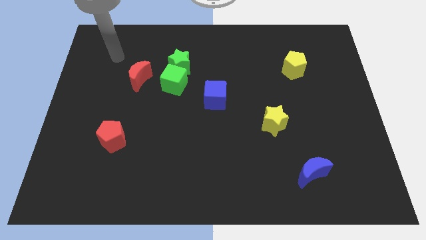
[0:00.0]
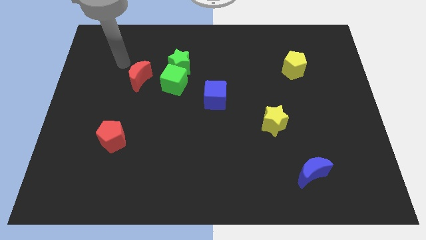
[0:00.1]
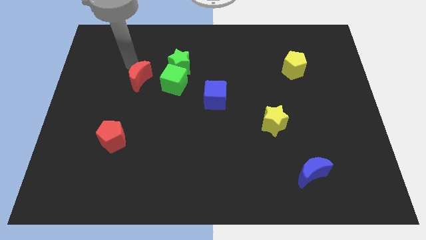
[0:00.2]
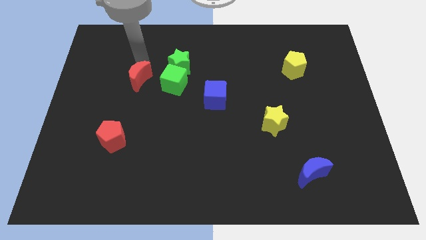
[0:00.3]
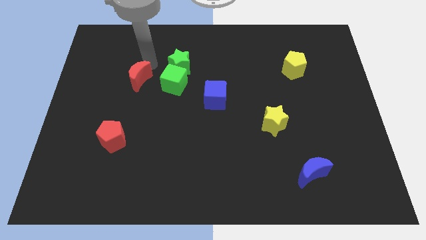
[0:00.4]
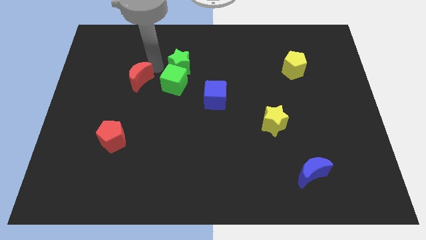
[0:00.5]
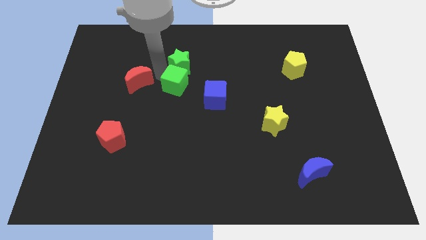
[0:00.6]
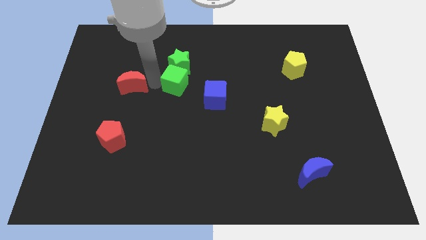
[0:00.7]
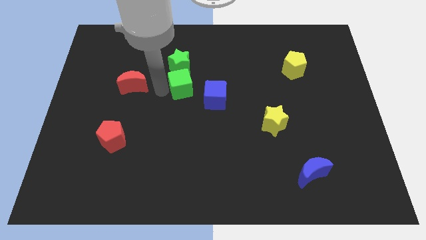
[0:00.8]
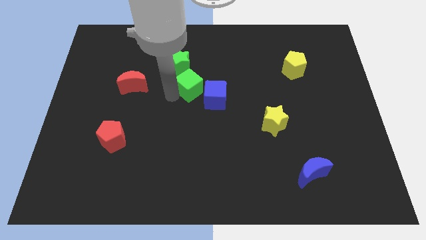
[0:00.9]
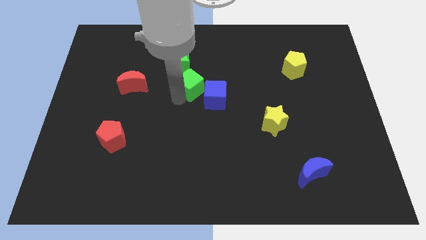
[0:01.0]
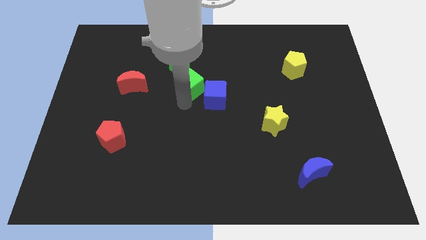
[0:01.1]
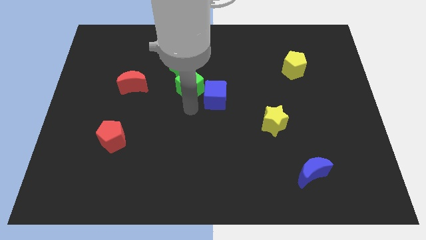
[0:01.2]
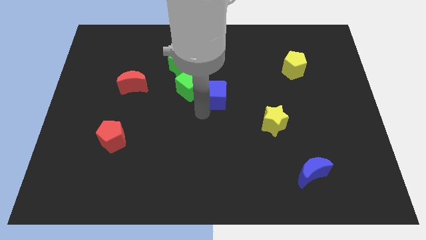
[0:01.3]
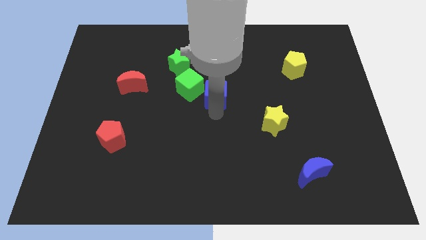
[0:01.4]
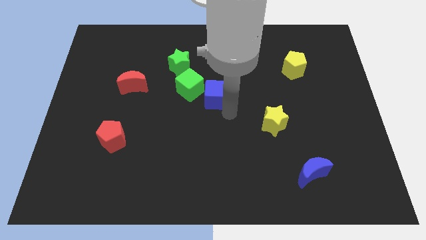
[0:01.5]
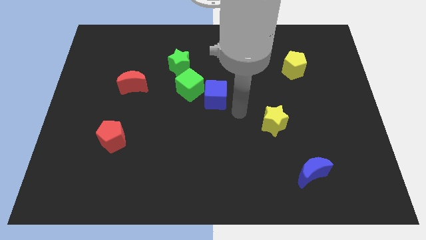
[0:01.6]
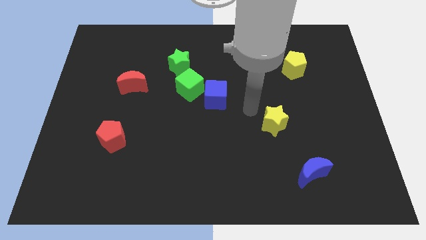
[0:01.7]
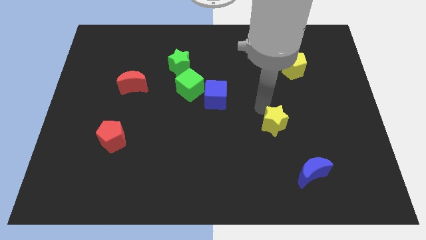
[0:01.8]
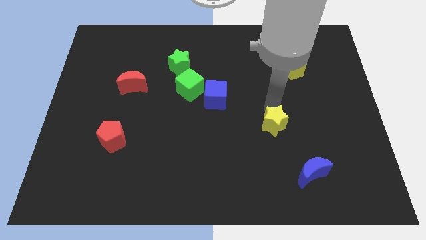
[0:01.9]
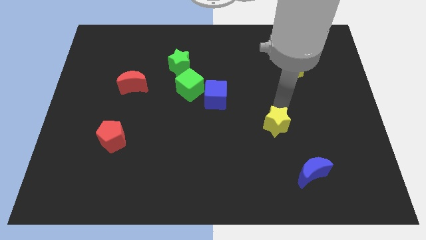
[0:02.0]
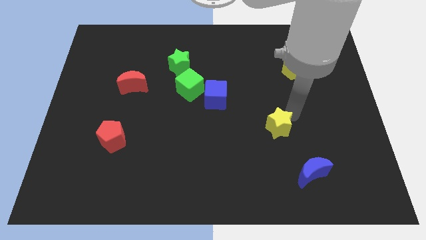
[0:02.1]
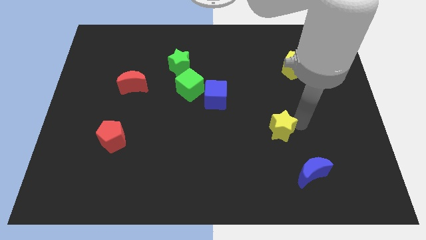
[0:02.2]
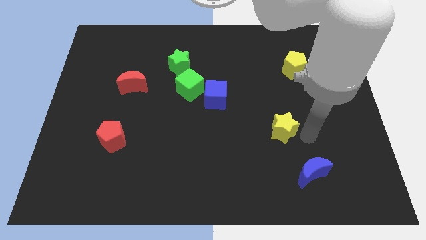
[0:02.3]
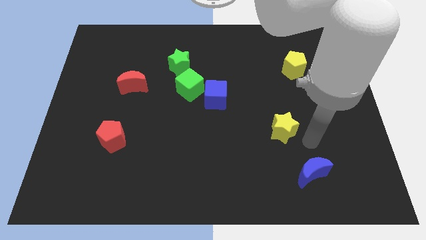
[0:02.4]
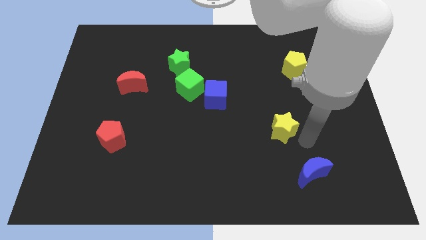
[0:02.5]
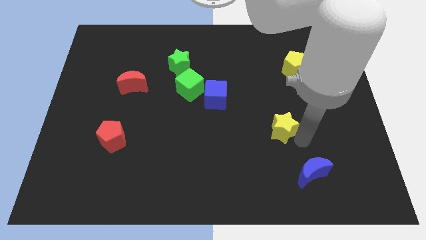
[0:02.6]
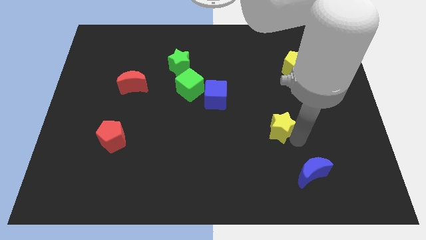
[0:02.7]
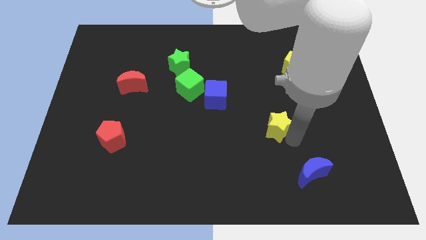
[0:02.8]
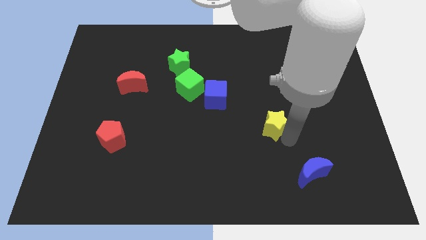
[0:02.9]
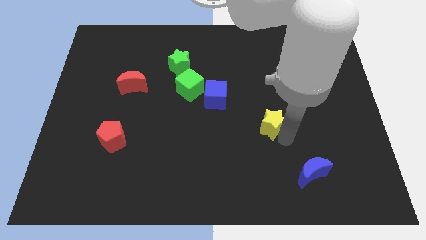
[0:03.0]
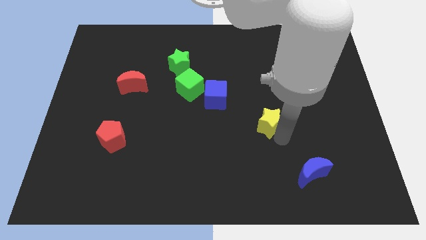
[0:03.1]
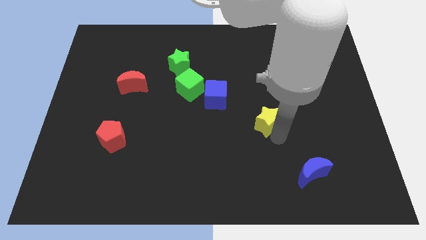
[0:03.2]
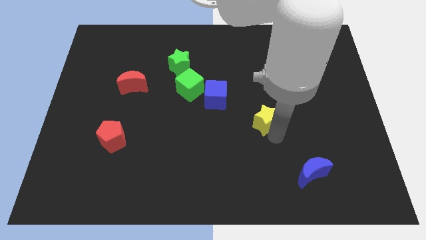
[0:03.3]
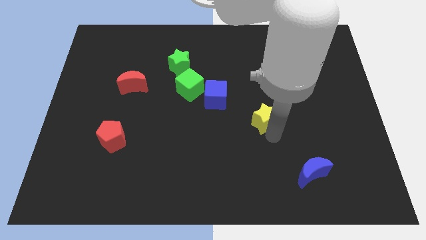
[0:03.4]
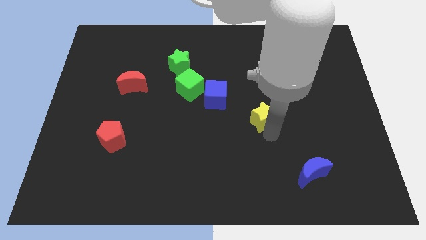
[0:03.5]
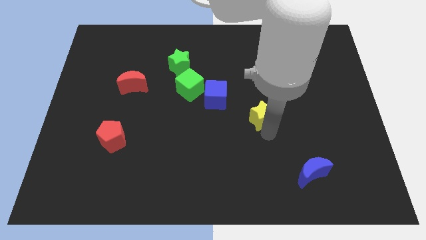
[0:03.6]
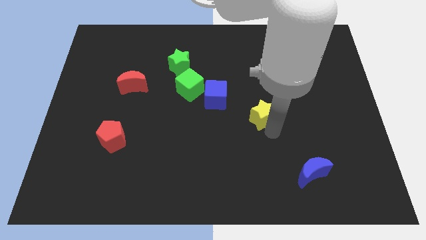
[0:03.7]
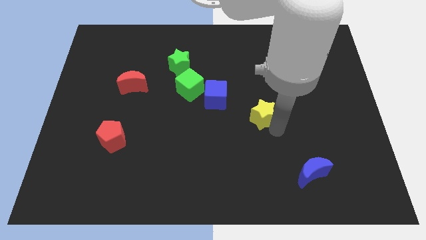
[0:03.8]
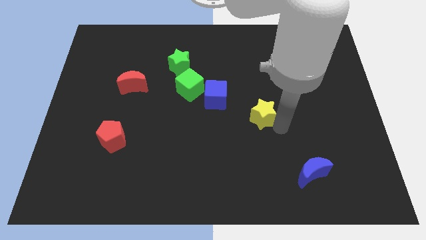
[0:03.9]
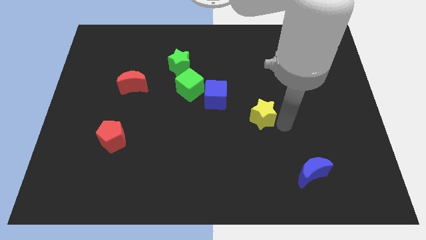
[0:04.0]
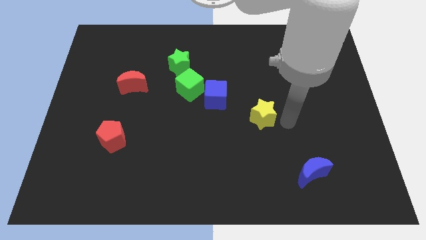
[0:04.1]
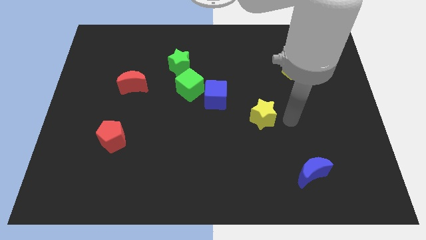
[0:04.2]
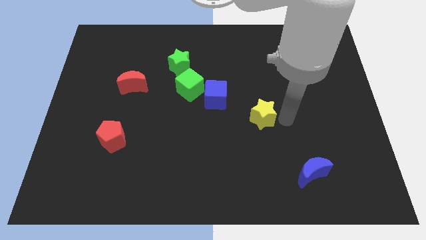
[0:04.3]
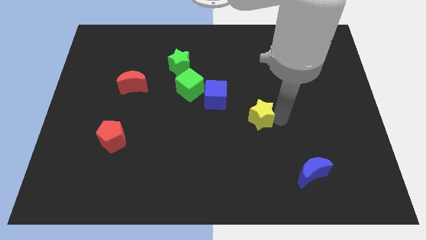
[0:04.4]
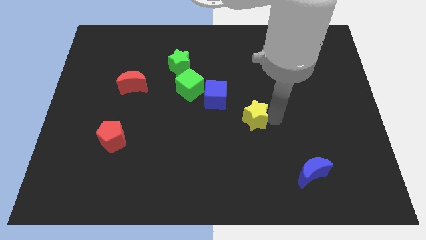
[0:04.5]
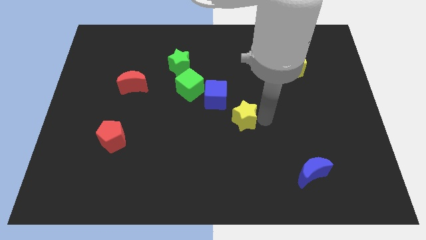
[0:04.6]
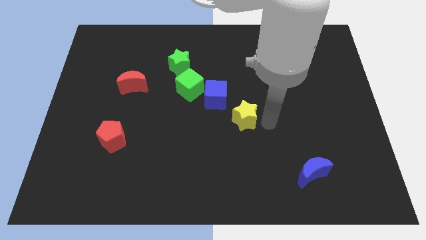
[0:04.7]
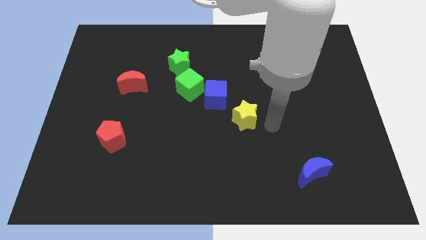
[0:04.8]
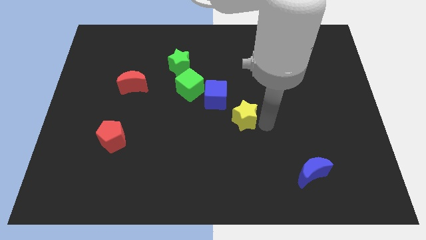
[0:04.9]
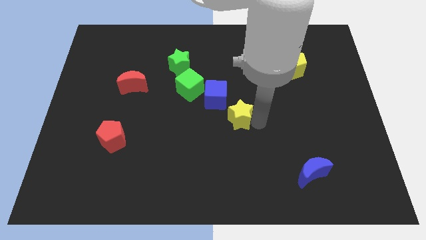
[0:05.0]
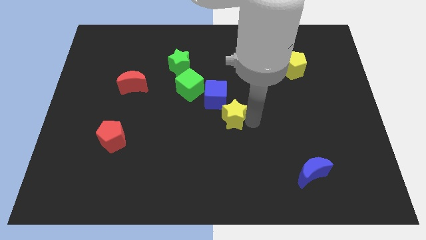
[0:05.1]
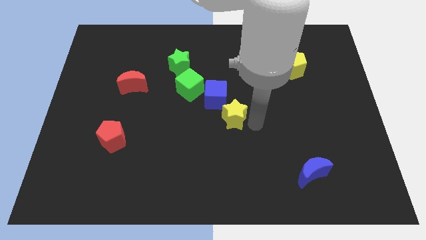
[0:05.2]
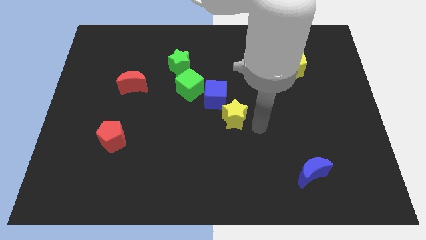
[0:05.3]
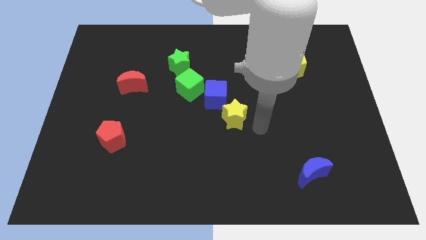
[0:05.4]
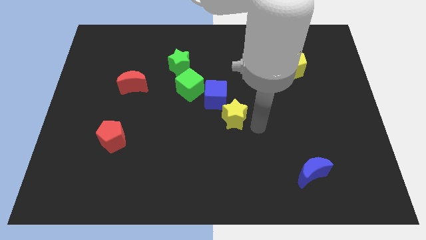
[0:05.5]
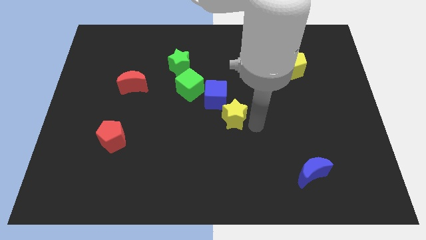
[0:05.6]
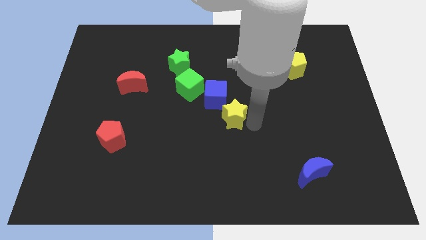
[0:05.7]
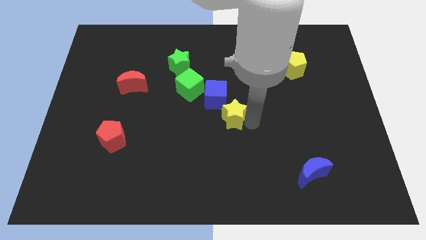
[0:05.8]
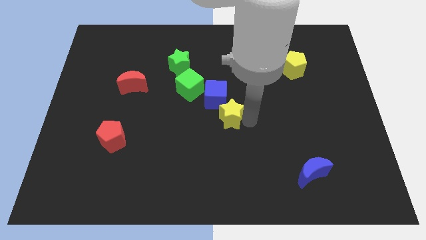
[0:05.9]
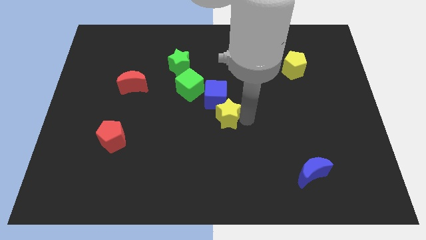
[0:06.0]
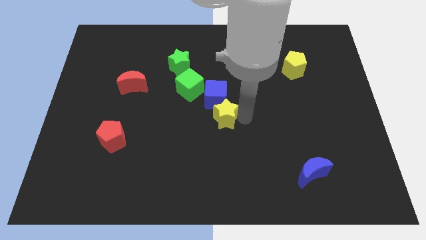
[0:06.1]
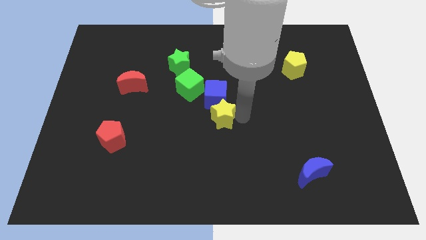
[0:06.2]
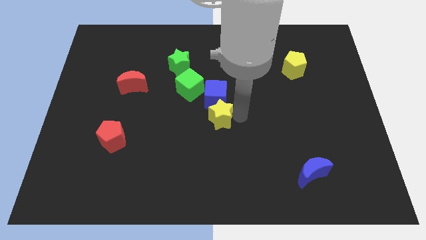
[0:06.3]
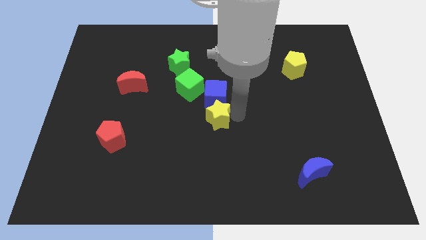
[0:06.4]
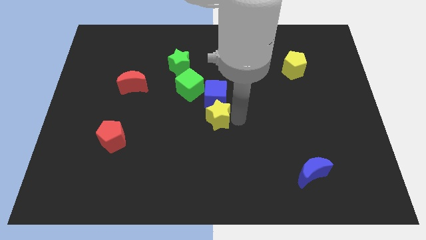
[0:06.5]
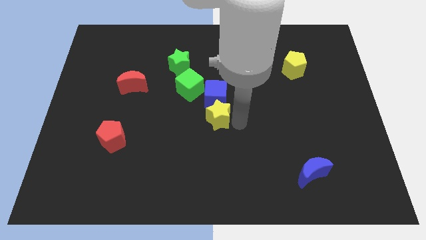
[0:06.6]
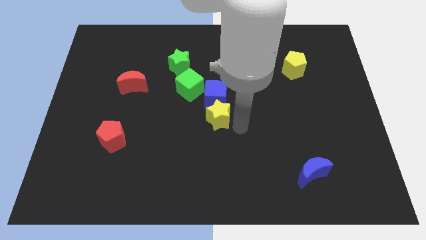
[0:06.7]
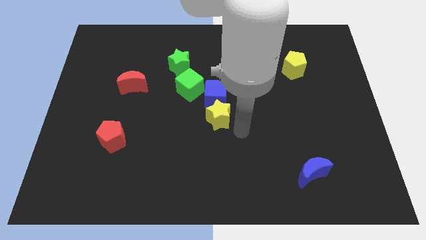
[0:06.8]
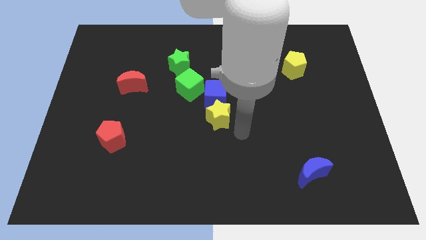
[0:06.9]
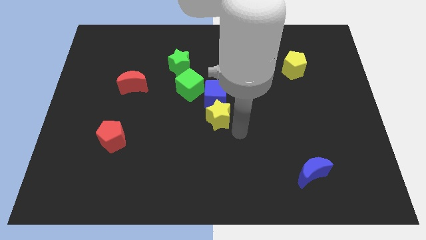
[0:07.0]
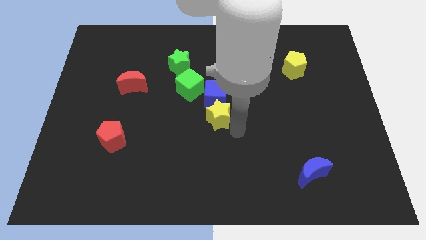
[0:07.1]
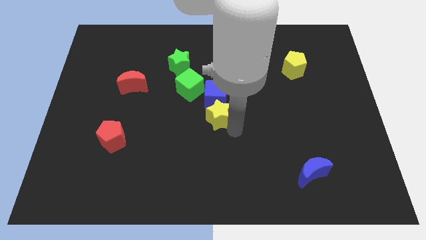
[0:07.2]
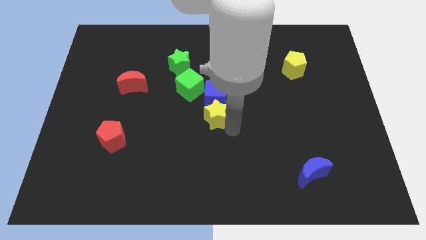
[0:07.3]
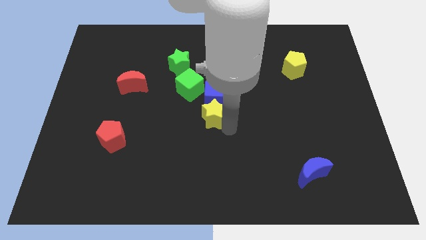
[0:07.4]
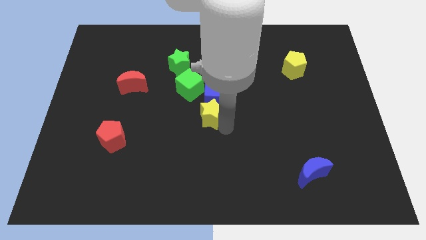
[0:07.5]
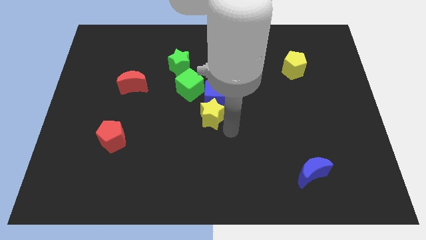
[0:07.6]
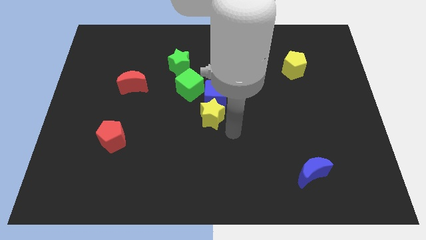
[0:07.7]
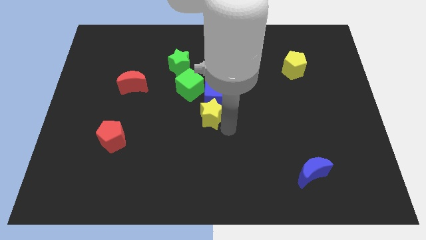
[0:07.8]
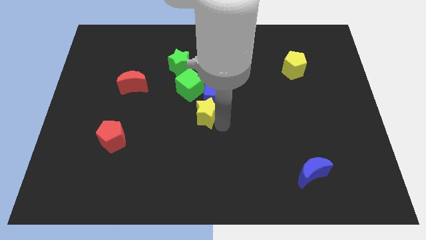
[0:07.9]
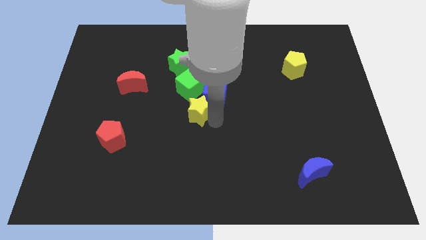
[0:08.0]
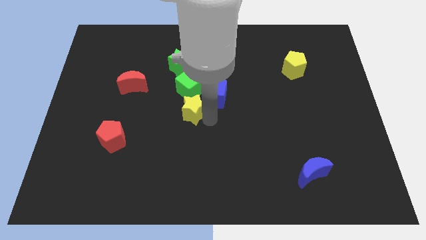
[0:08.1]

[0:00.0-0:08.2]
slide the yellow star below the green star
